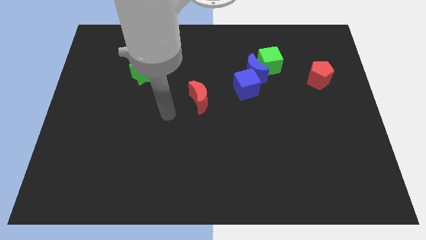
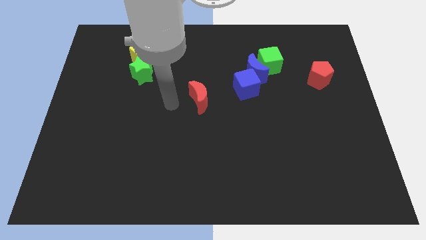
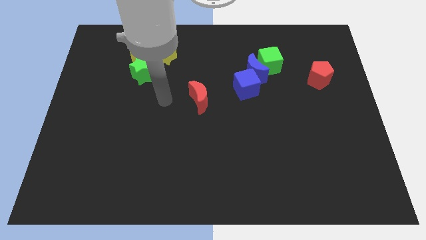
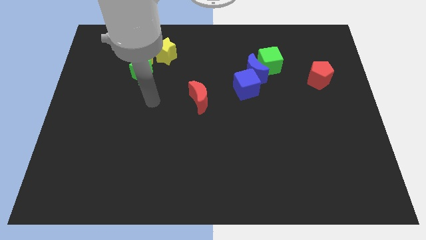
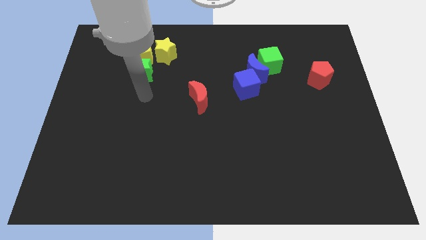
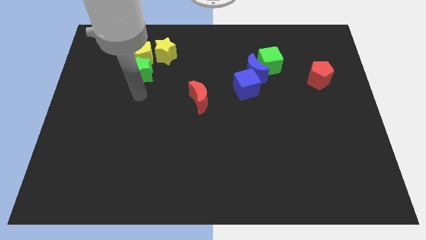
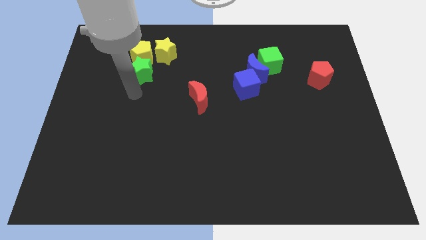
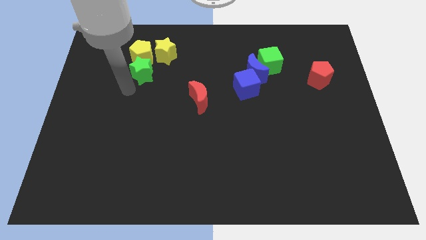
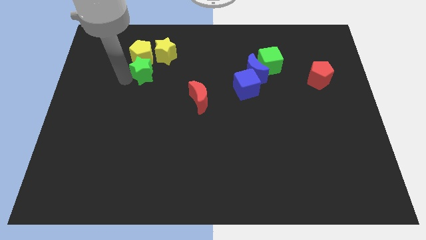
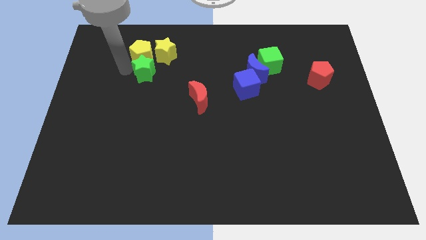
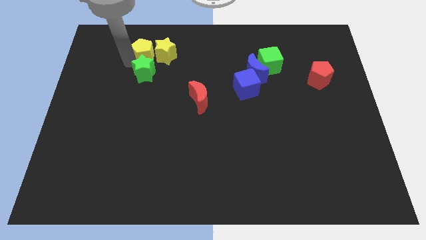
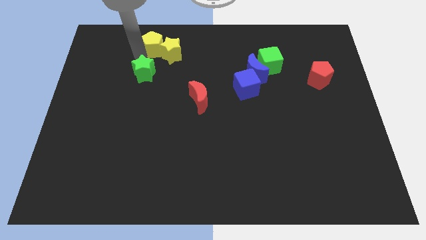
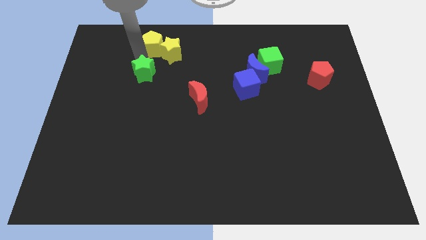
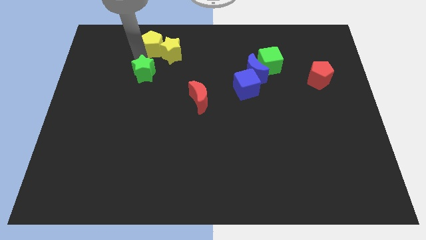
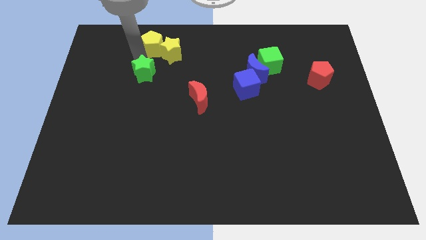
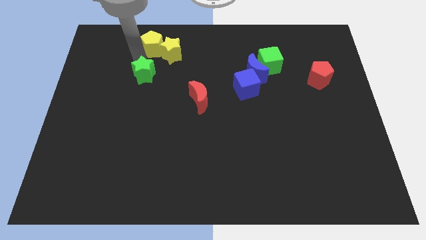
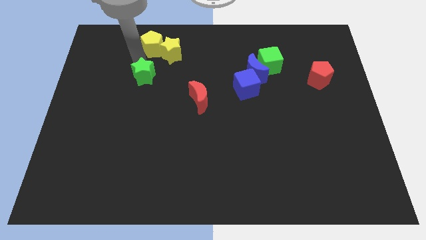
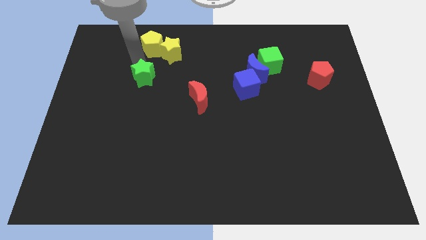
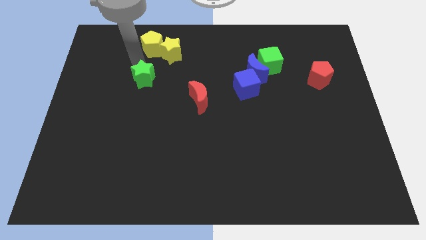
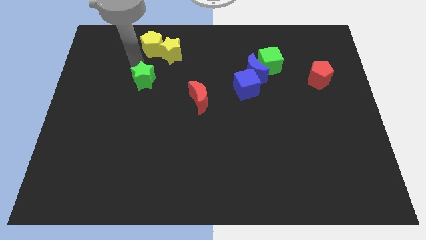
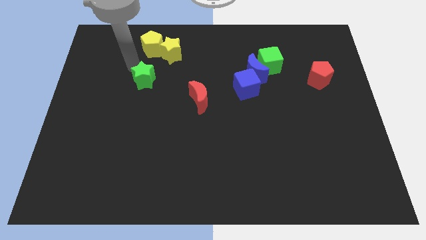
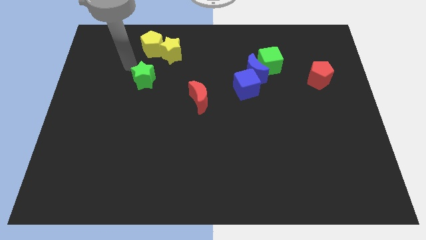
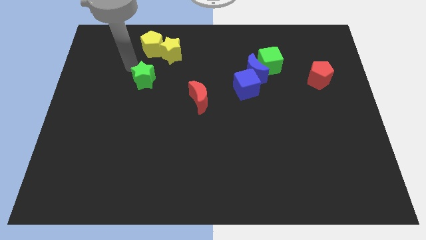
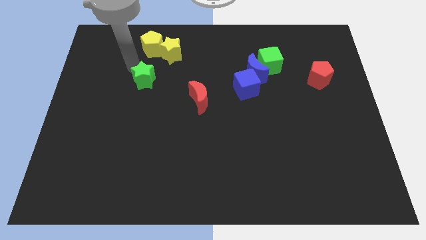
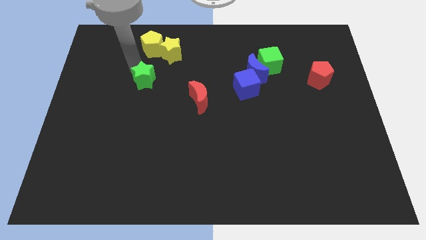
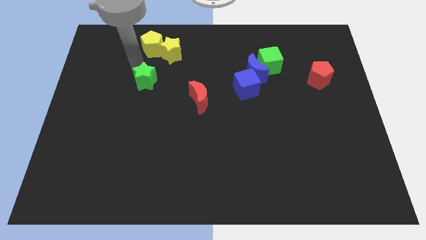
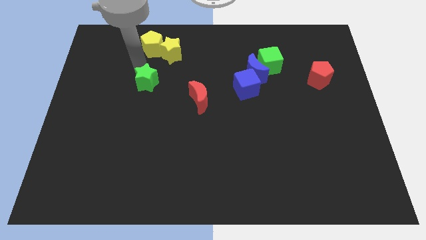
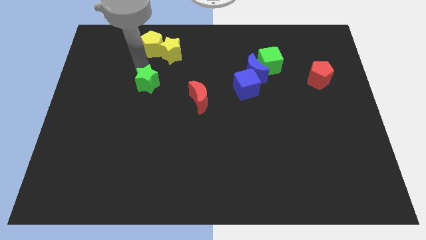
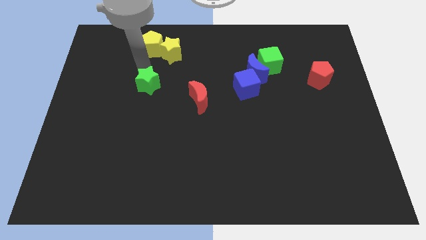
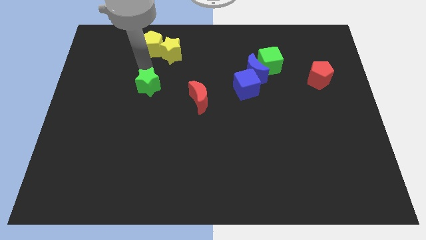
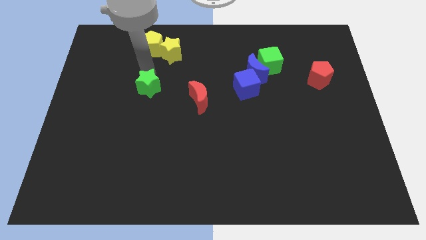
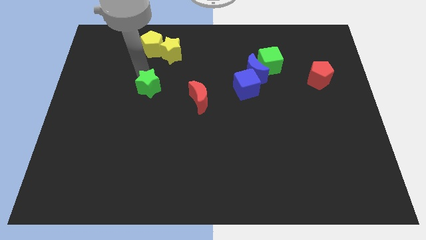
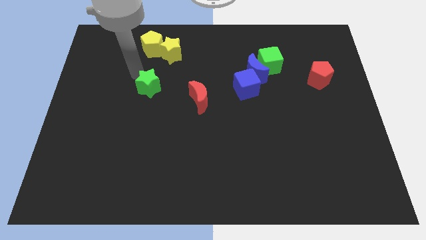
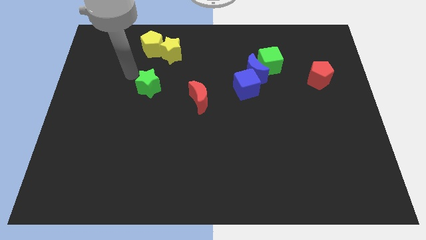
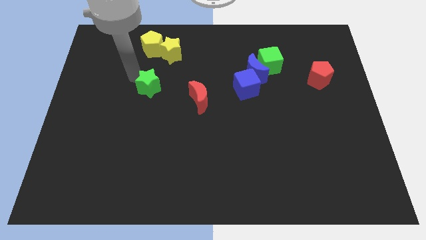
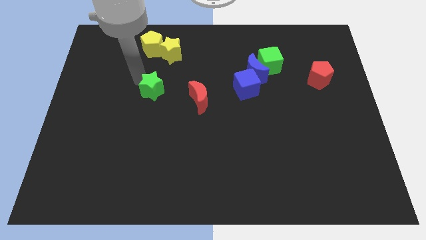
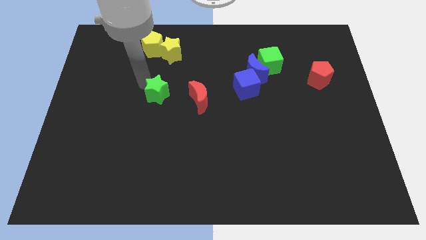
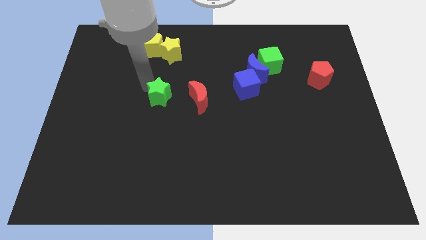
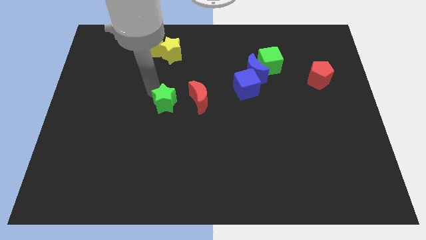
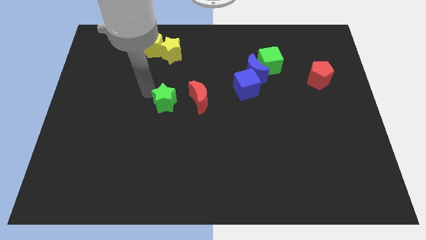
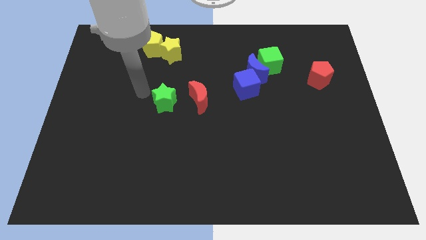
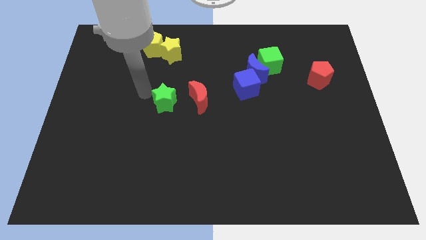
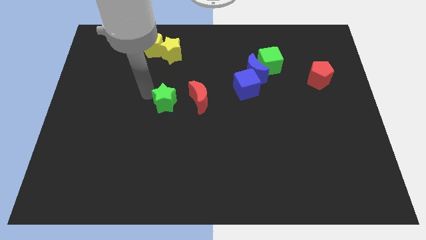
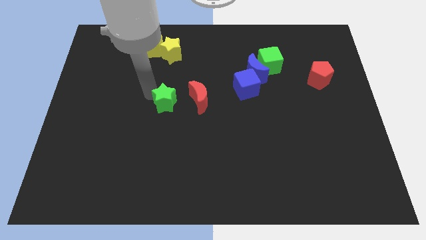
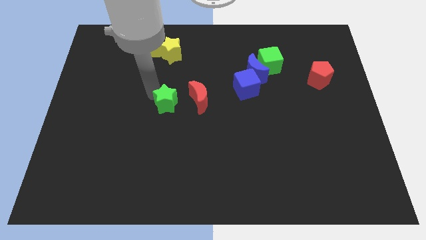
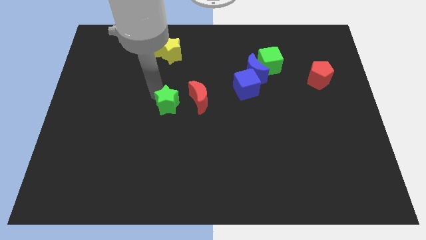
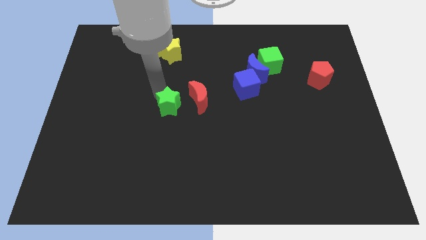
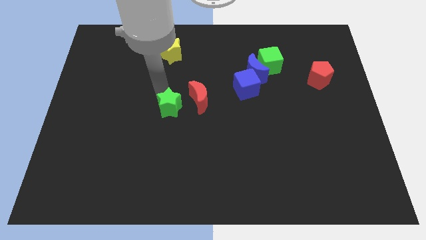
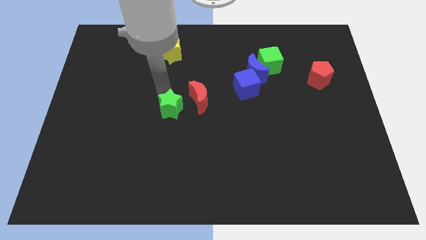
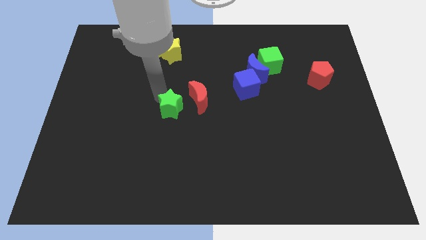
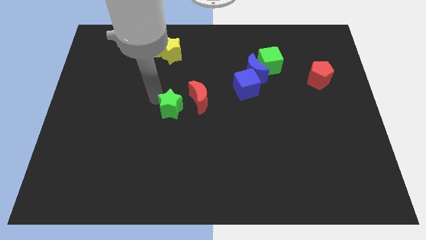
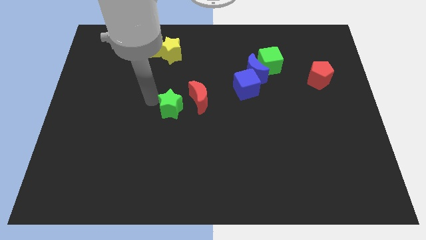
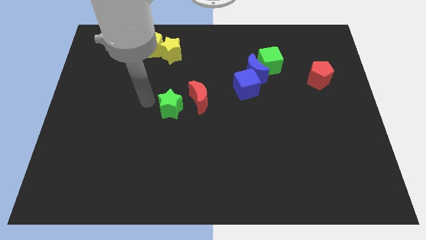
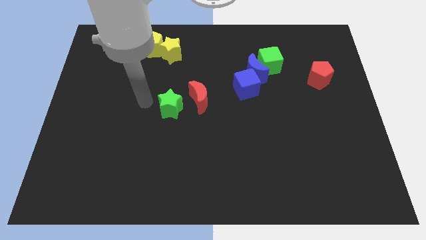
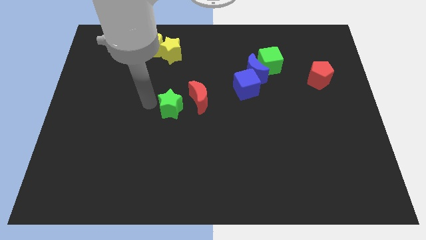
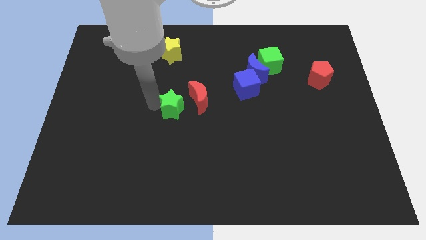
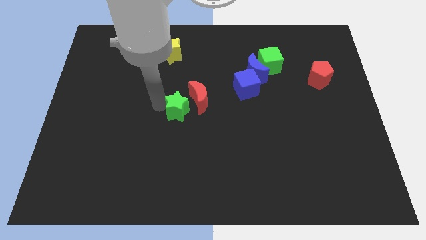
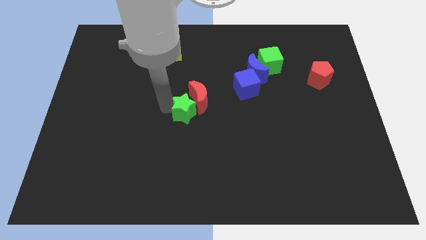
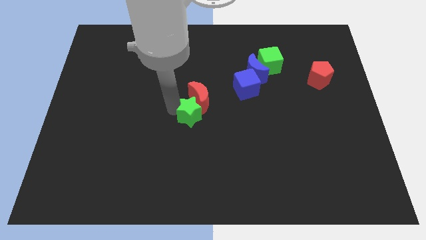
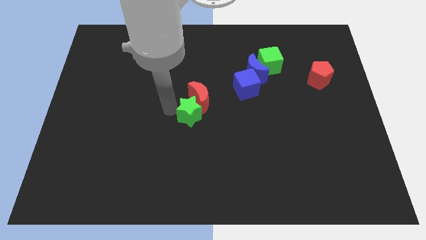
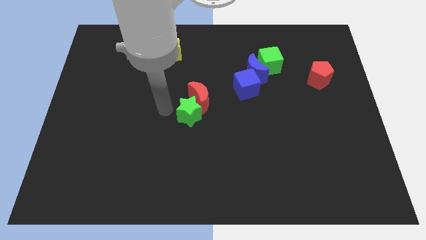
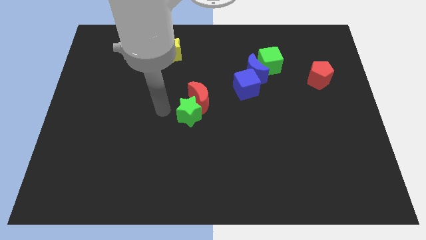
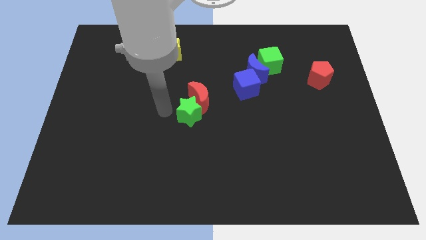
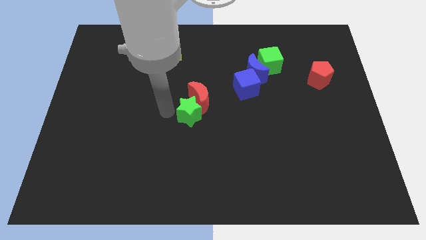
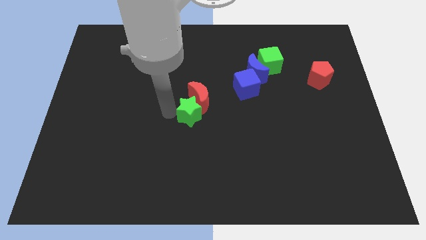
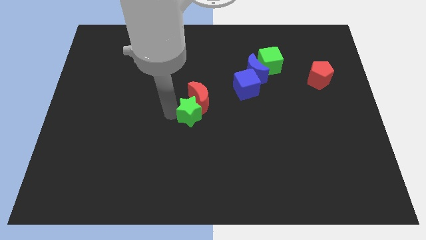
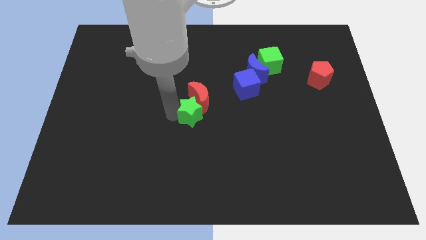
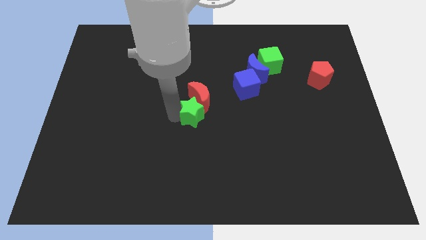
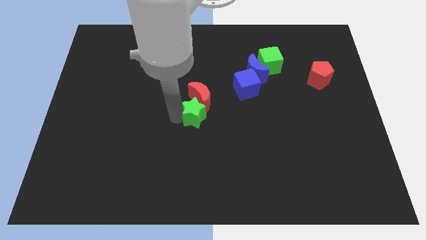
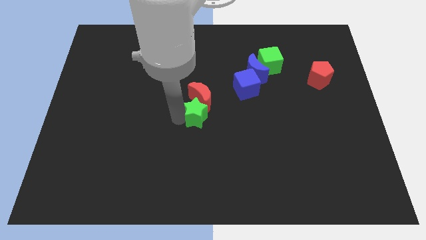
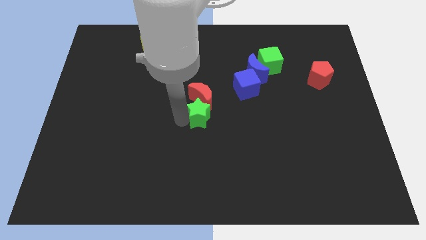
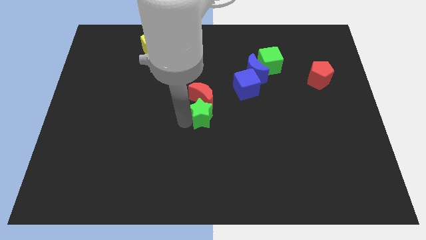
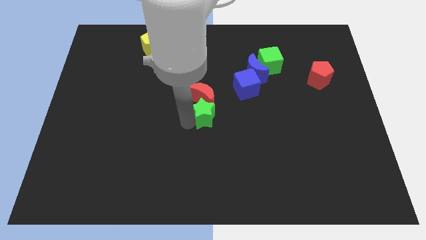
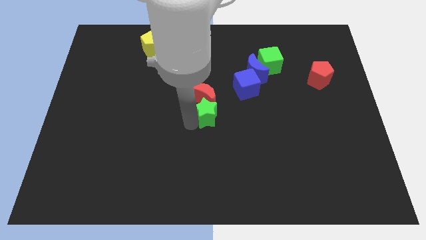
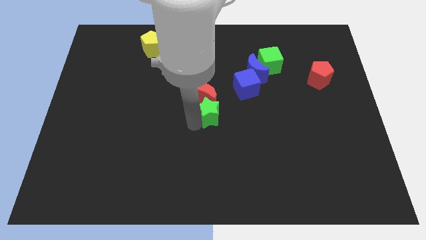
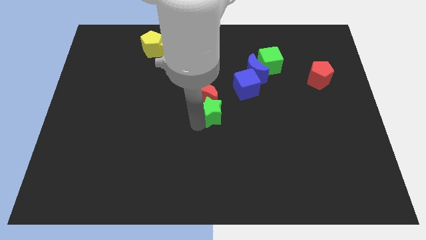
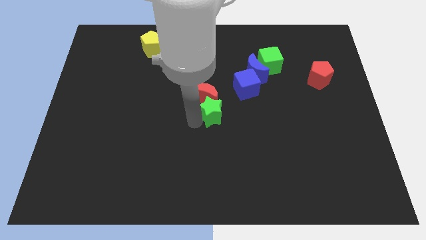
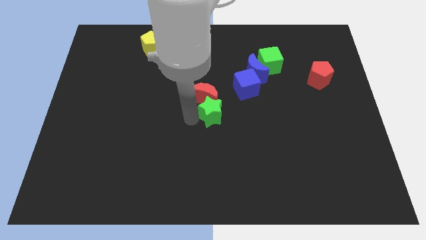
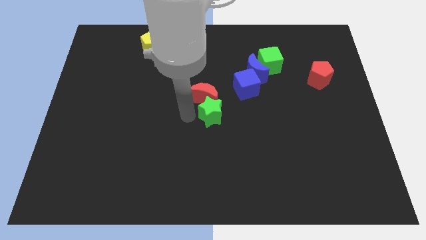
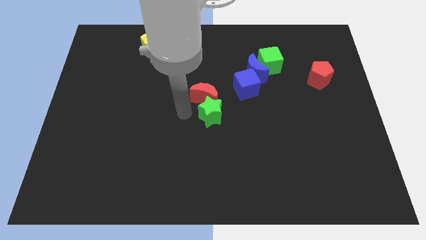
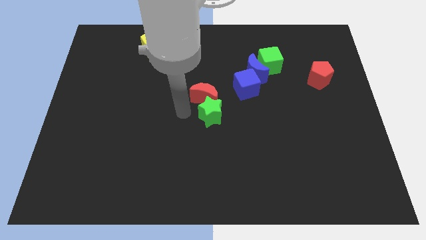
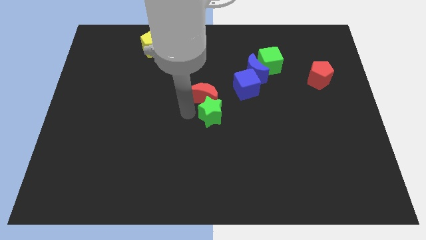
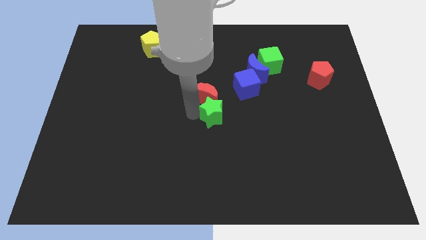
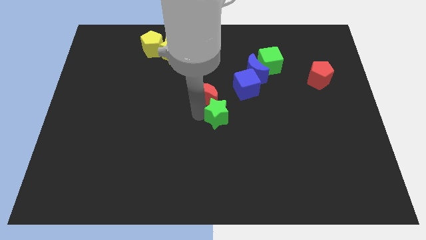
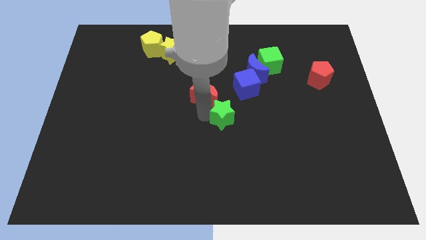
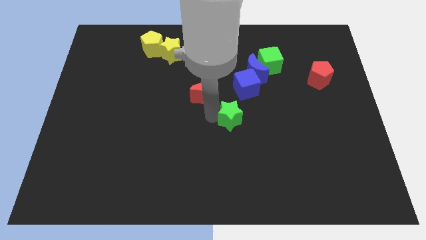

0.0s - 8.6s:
put the green star to the bottom of the blue cube
